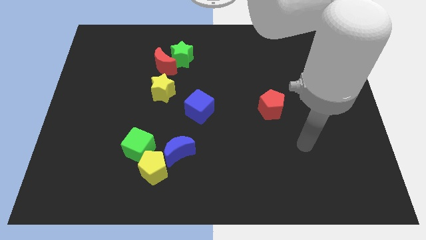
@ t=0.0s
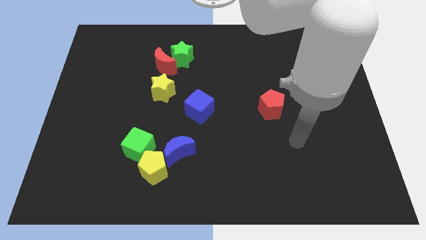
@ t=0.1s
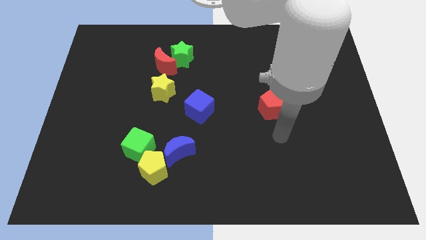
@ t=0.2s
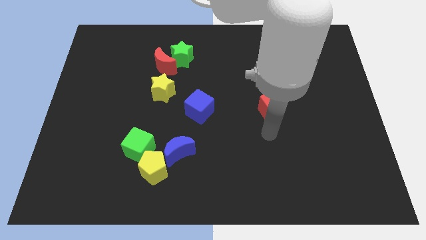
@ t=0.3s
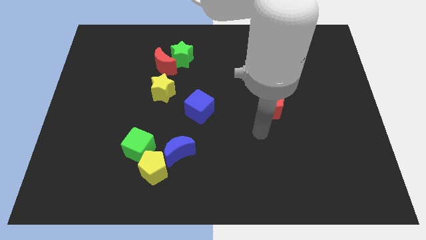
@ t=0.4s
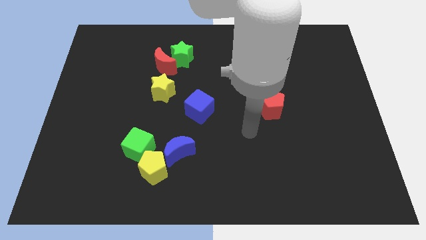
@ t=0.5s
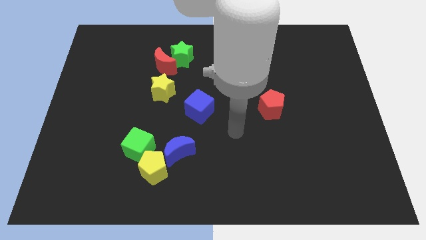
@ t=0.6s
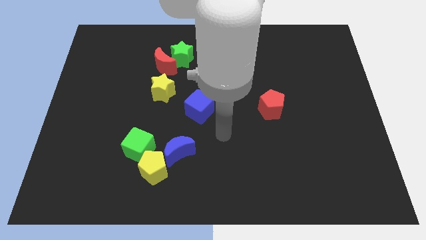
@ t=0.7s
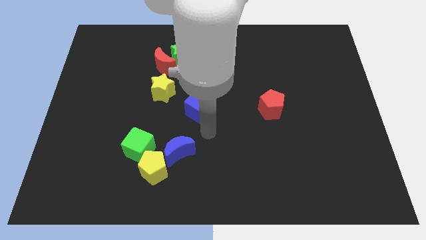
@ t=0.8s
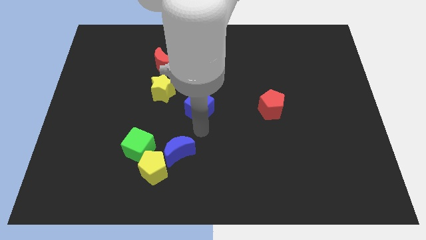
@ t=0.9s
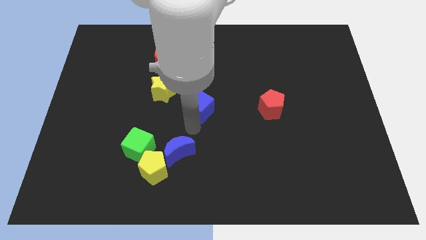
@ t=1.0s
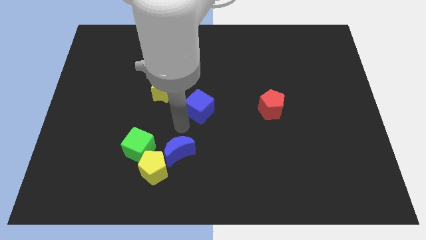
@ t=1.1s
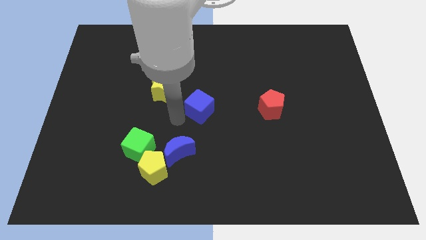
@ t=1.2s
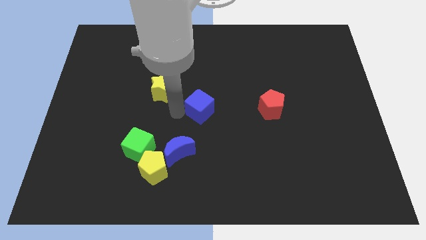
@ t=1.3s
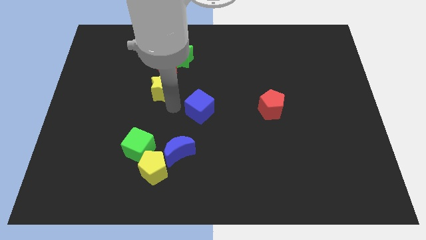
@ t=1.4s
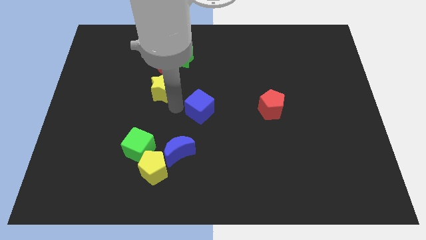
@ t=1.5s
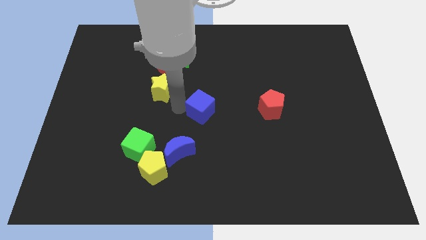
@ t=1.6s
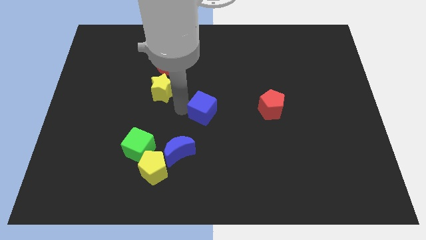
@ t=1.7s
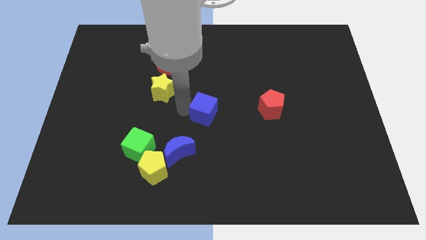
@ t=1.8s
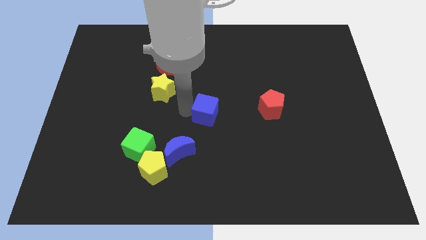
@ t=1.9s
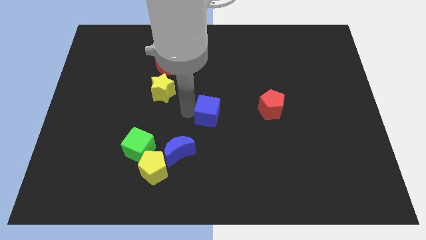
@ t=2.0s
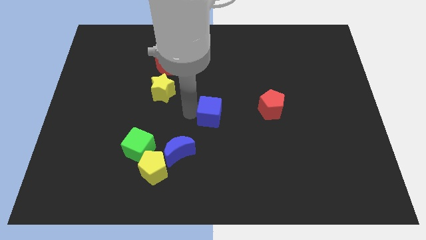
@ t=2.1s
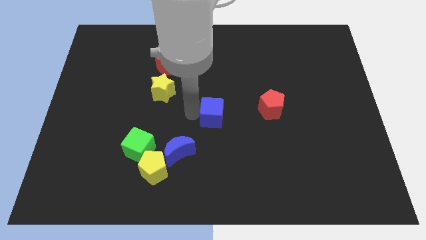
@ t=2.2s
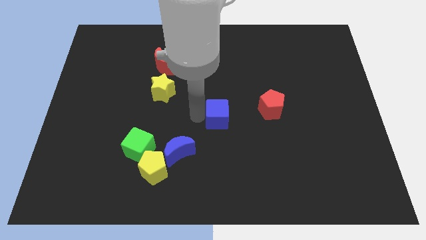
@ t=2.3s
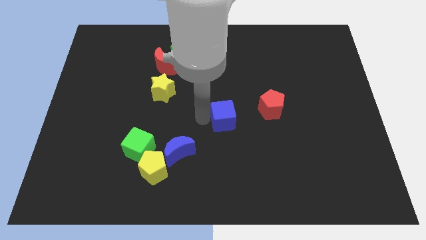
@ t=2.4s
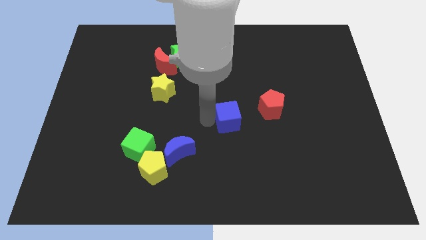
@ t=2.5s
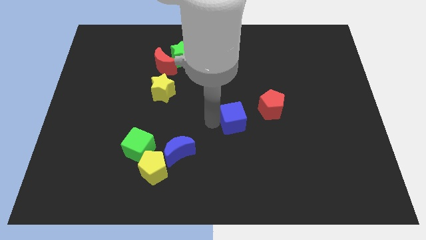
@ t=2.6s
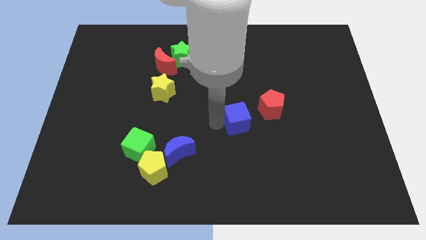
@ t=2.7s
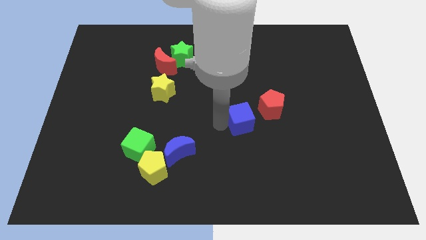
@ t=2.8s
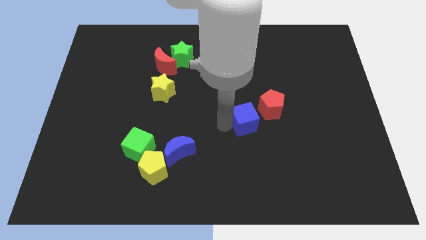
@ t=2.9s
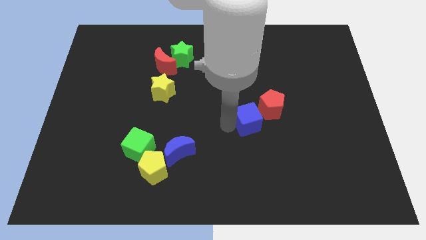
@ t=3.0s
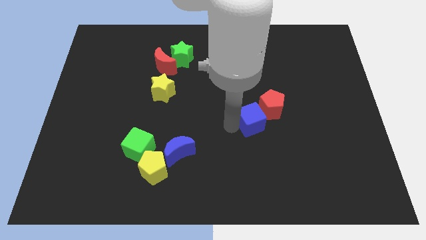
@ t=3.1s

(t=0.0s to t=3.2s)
push the blue cube towards the red pentagon

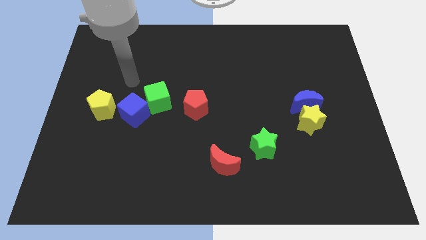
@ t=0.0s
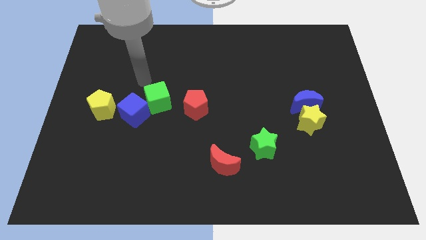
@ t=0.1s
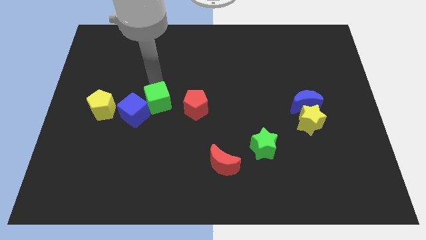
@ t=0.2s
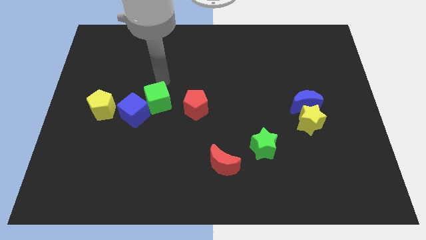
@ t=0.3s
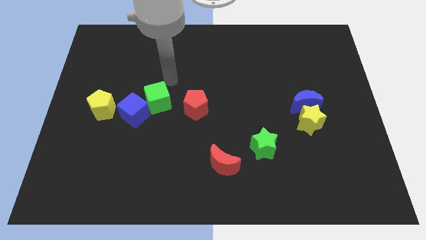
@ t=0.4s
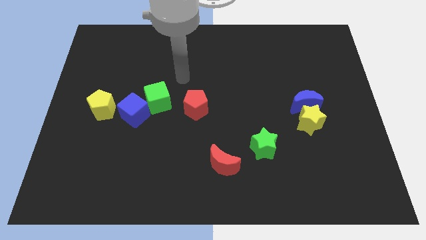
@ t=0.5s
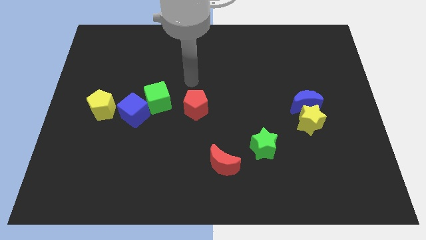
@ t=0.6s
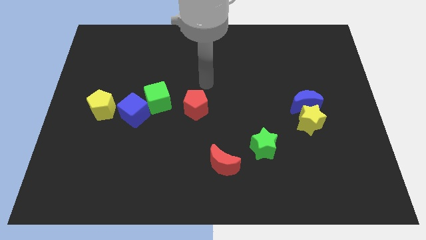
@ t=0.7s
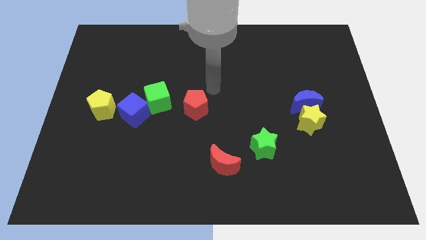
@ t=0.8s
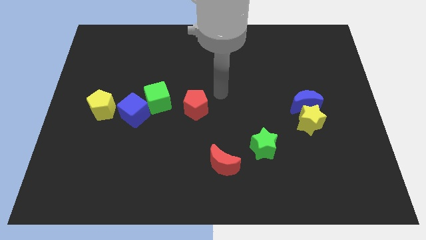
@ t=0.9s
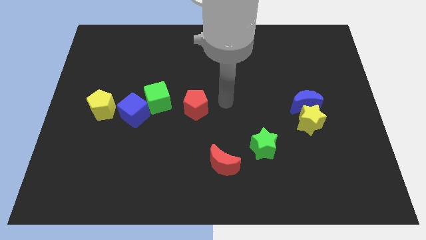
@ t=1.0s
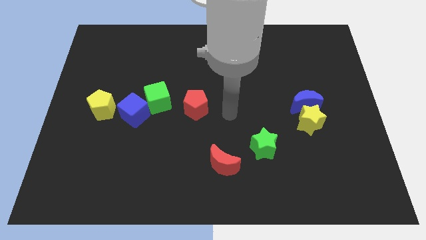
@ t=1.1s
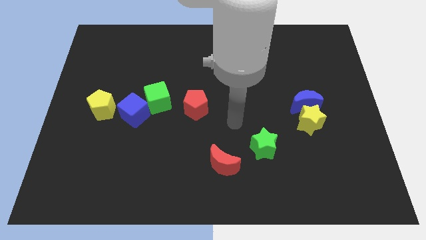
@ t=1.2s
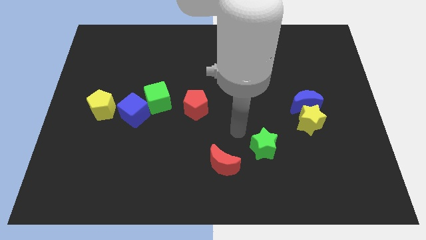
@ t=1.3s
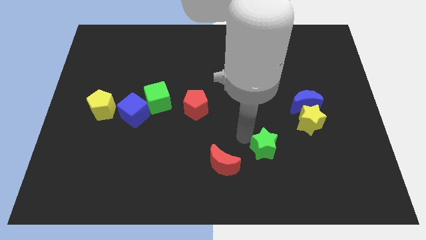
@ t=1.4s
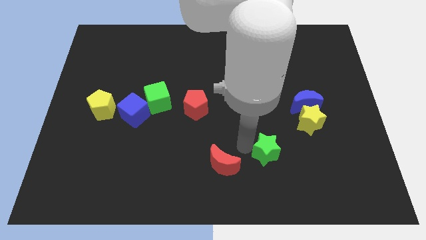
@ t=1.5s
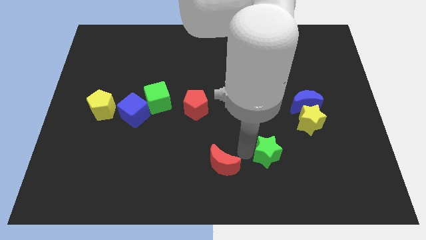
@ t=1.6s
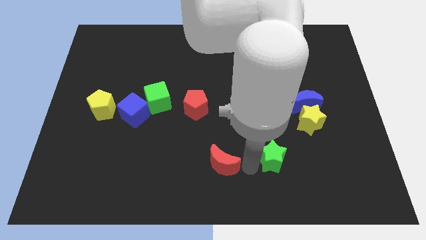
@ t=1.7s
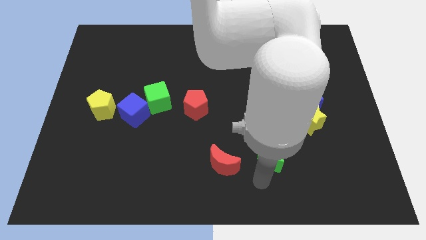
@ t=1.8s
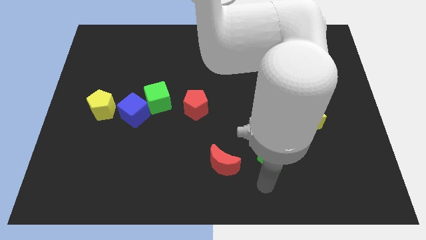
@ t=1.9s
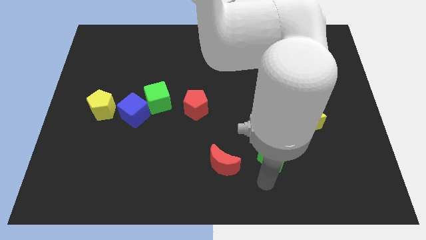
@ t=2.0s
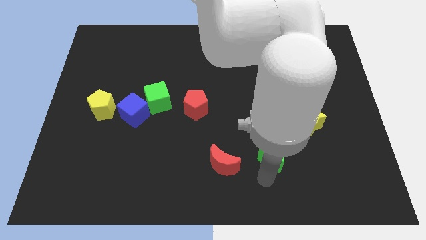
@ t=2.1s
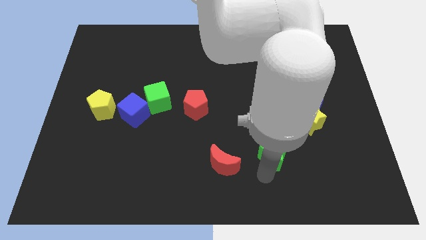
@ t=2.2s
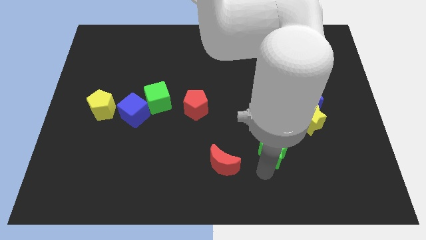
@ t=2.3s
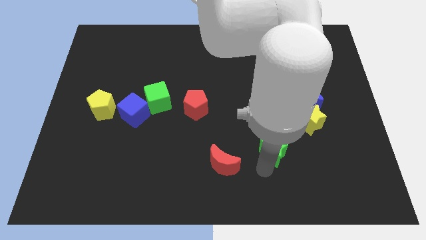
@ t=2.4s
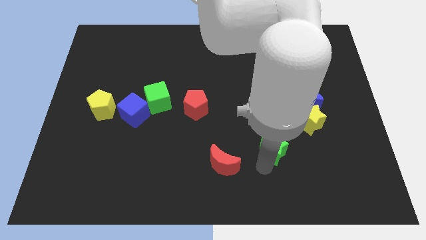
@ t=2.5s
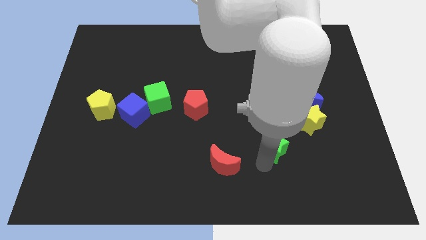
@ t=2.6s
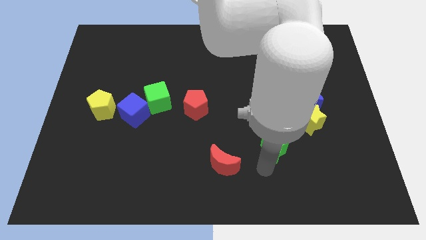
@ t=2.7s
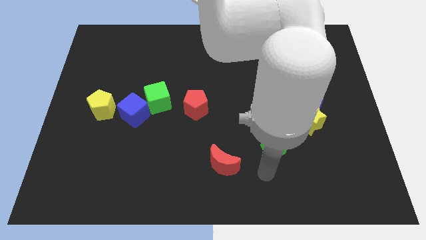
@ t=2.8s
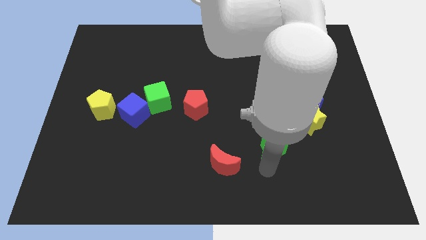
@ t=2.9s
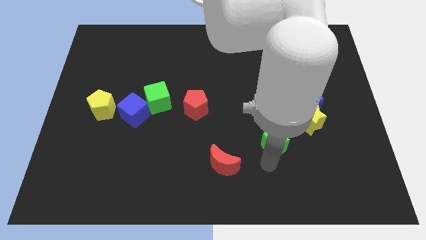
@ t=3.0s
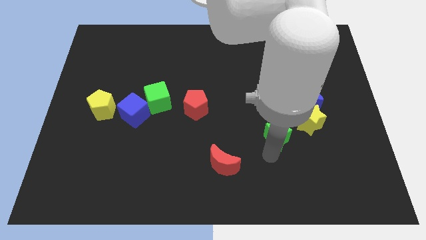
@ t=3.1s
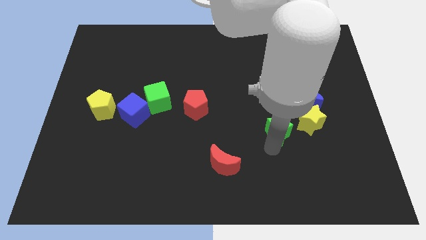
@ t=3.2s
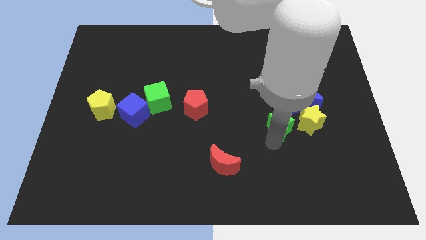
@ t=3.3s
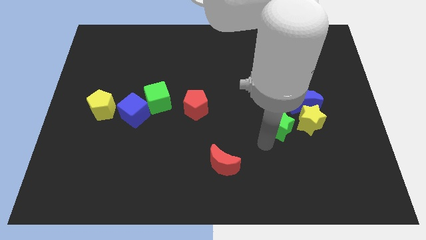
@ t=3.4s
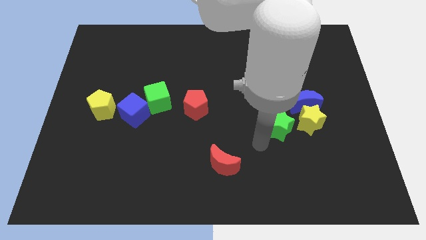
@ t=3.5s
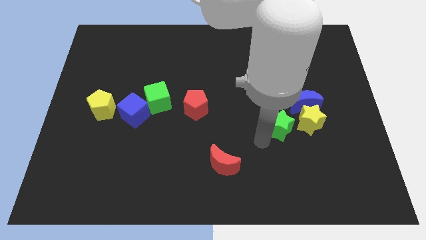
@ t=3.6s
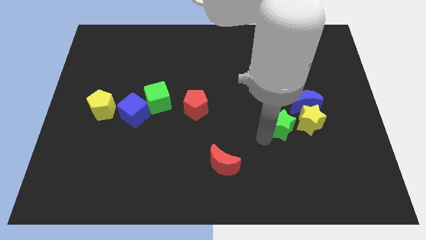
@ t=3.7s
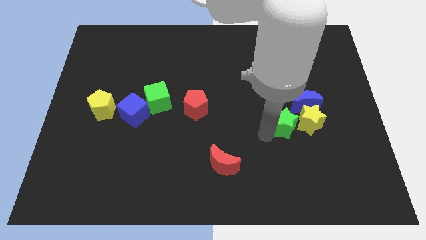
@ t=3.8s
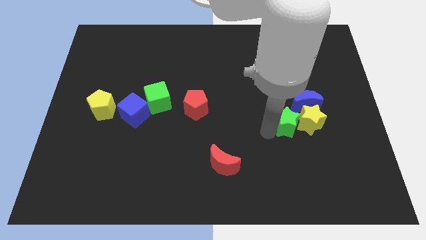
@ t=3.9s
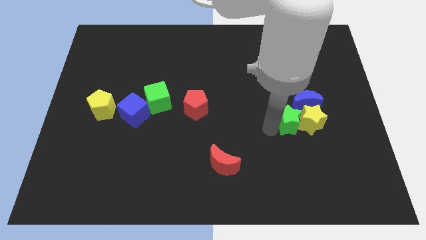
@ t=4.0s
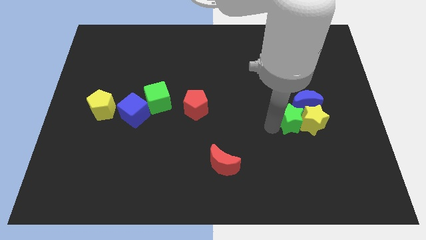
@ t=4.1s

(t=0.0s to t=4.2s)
slide the green star to the blue moon

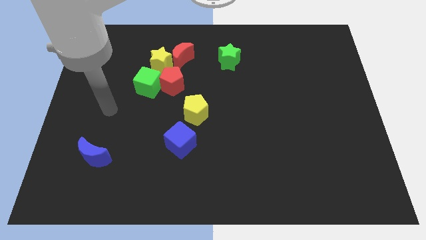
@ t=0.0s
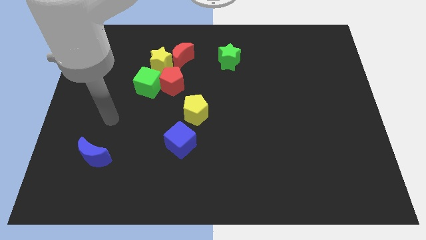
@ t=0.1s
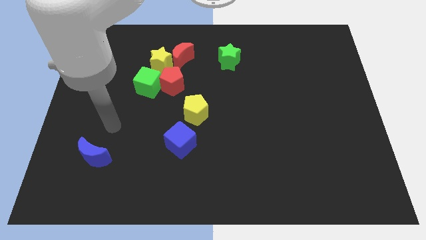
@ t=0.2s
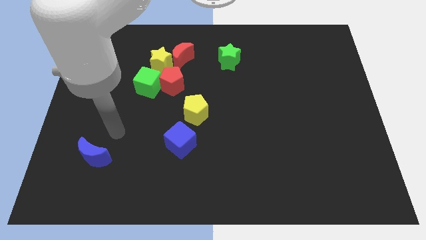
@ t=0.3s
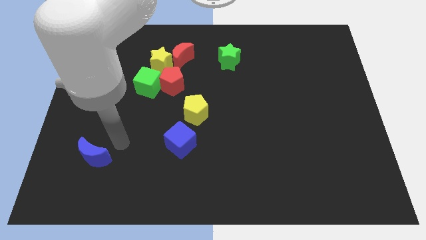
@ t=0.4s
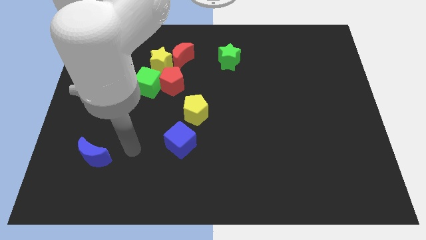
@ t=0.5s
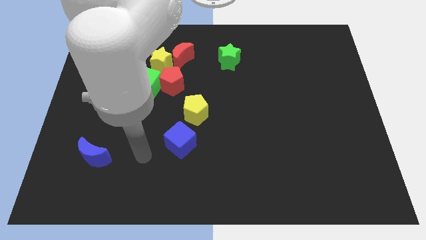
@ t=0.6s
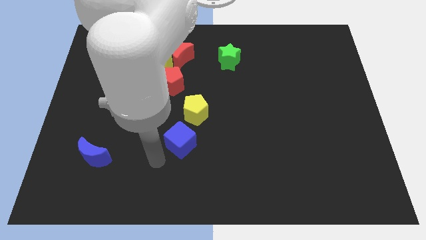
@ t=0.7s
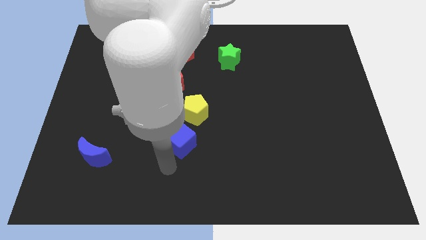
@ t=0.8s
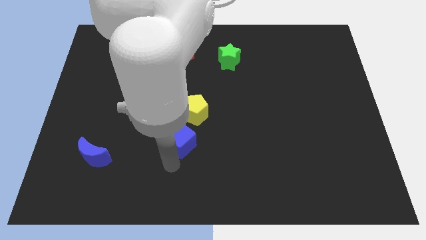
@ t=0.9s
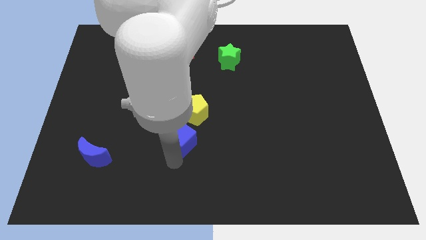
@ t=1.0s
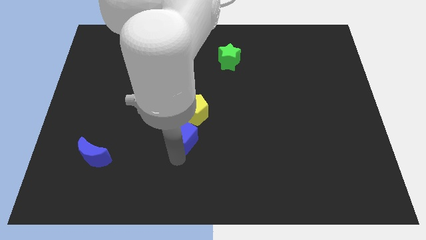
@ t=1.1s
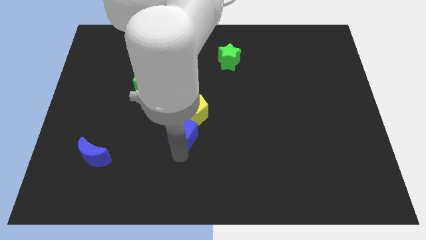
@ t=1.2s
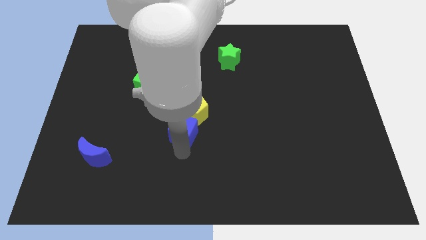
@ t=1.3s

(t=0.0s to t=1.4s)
move the blue cube close to the yellow pentagon
